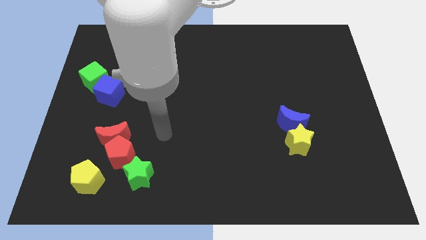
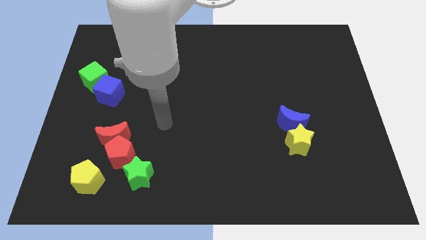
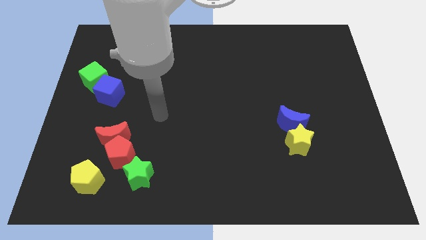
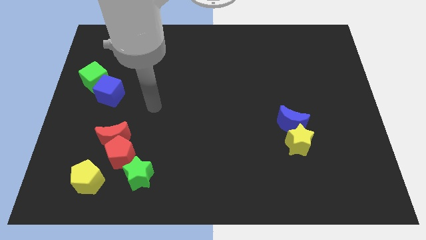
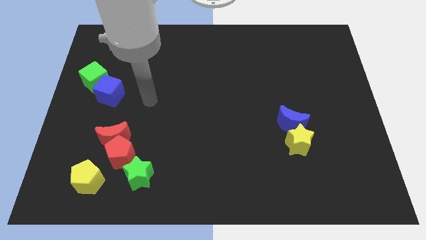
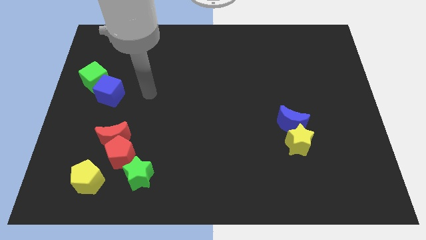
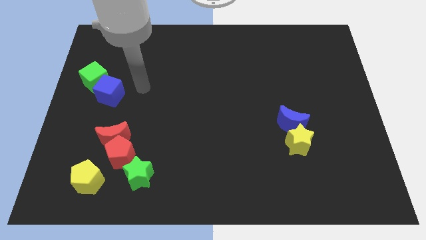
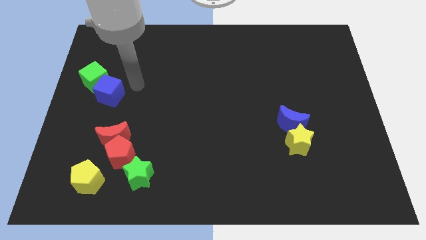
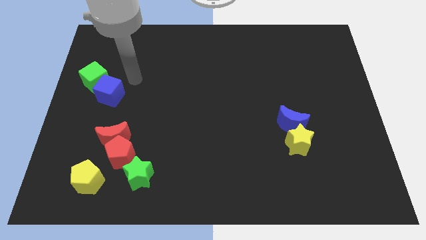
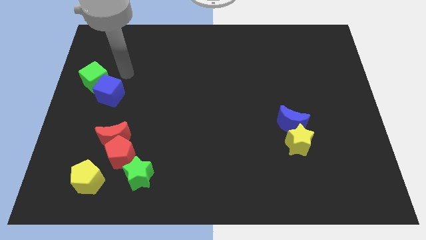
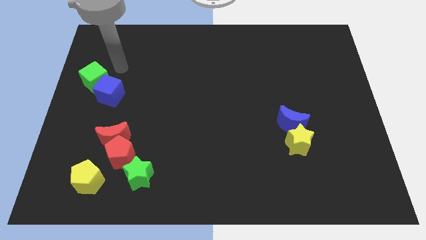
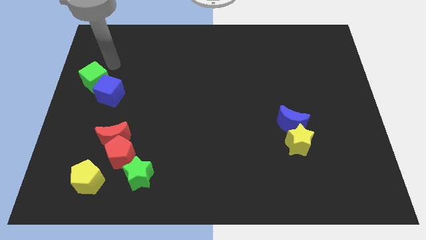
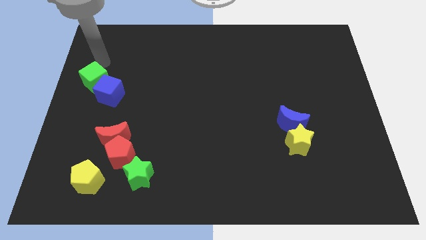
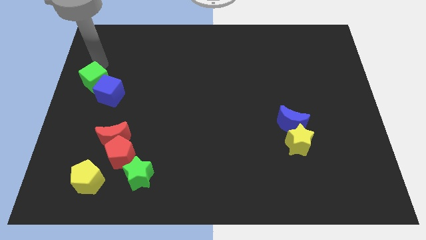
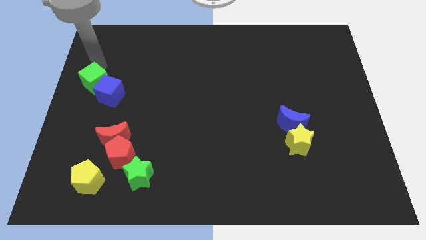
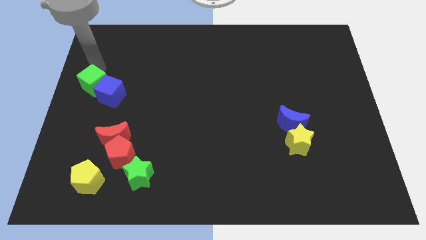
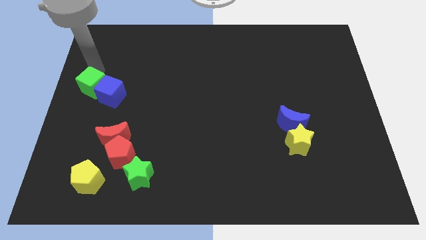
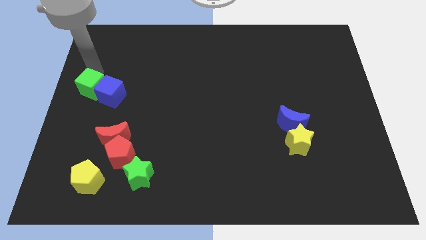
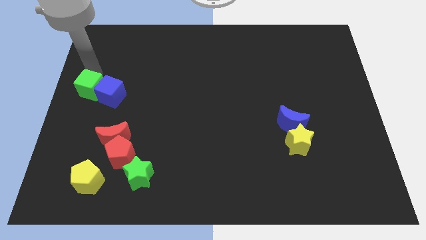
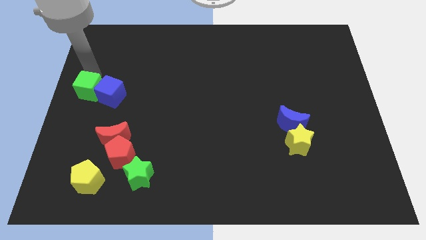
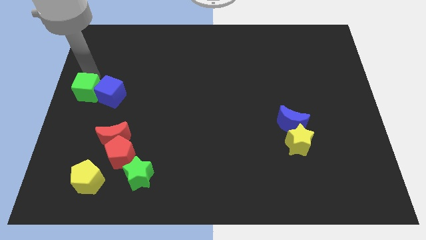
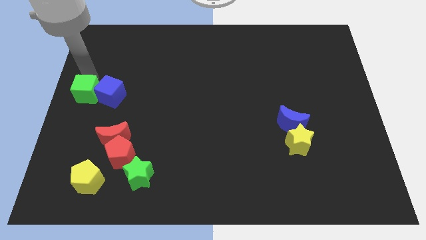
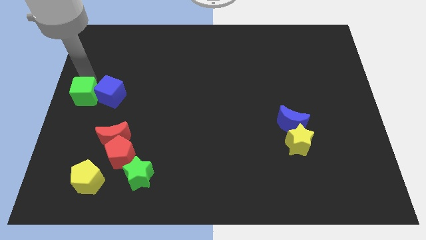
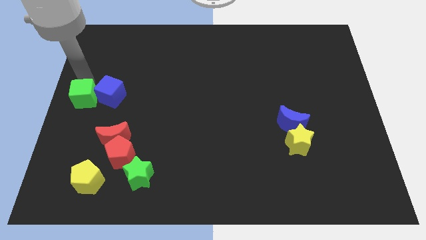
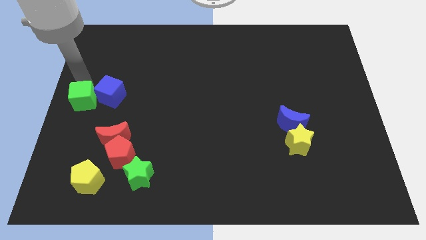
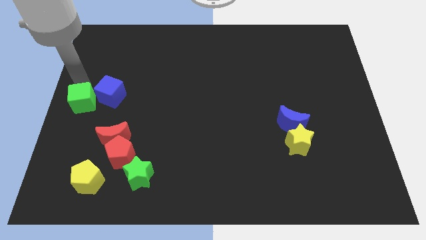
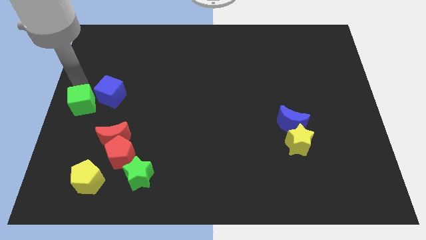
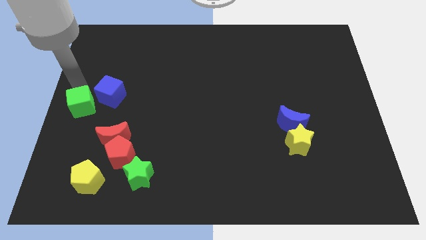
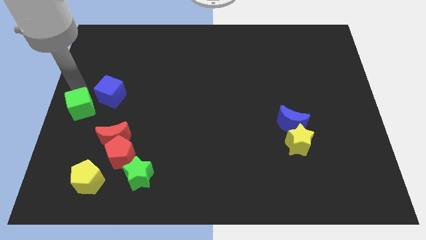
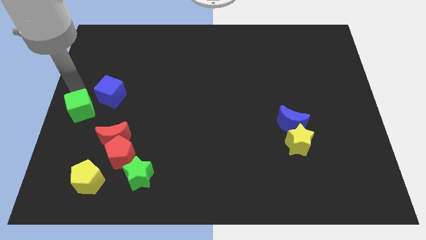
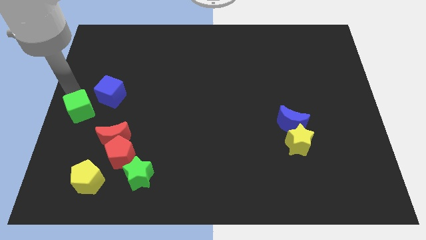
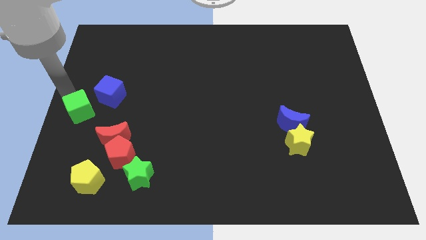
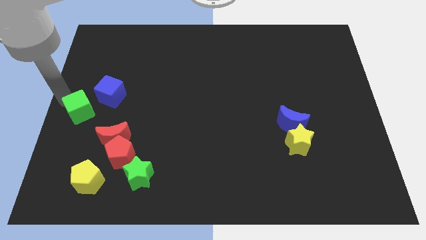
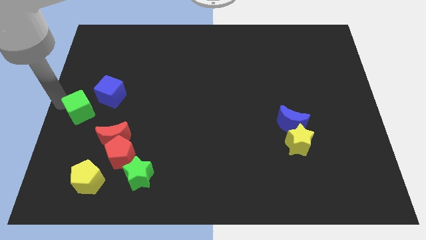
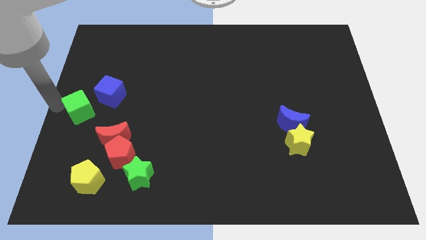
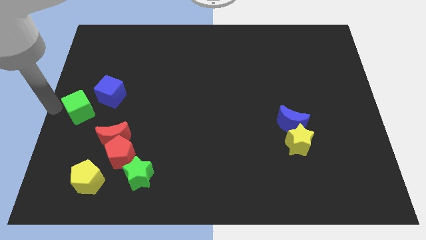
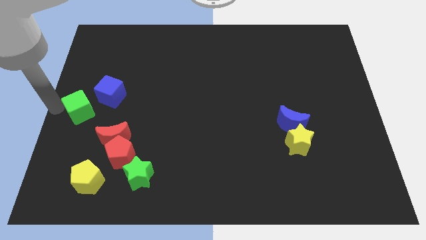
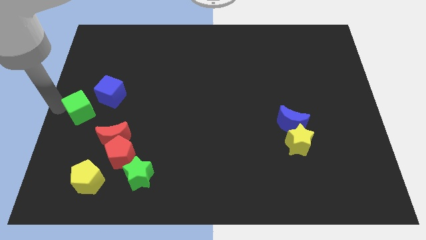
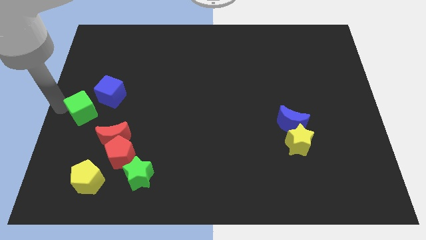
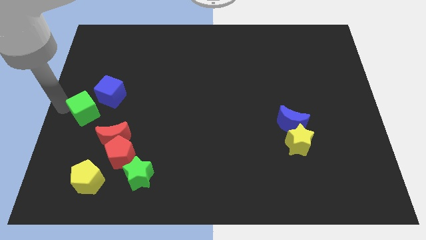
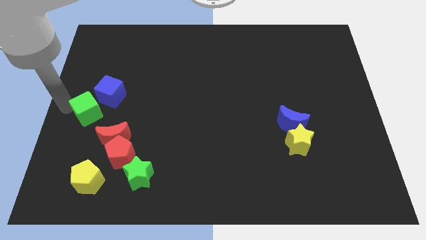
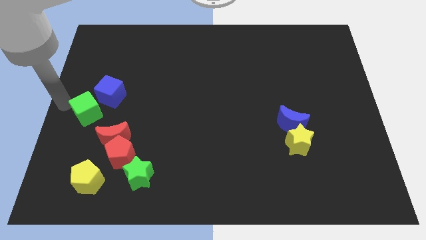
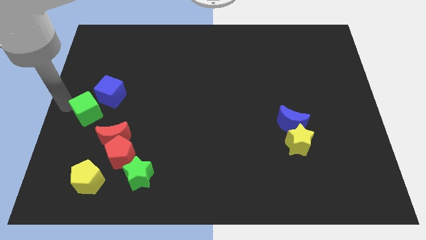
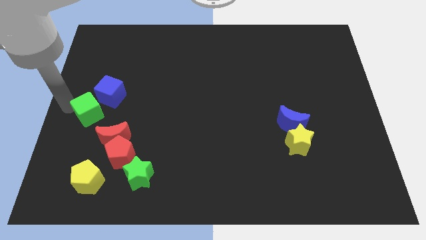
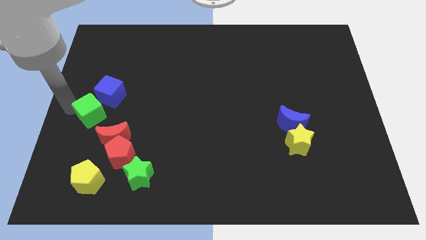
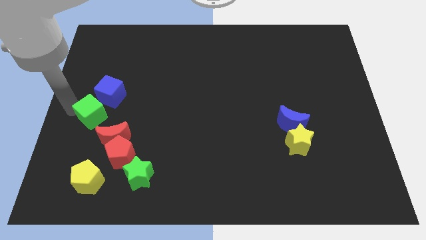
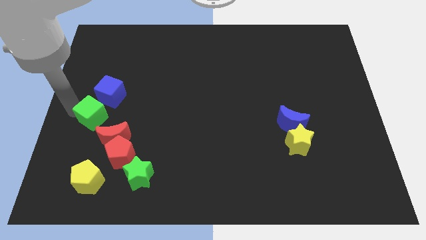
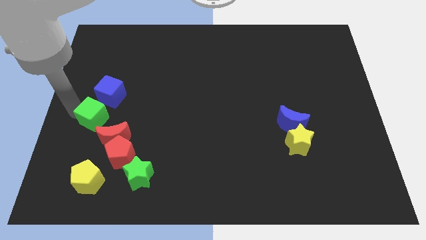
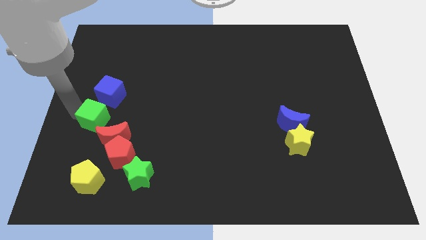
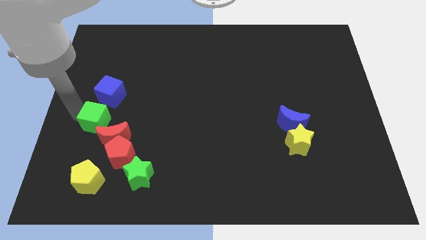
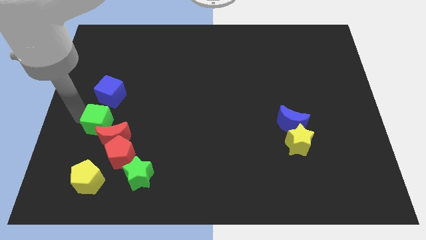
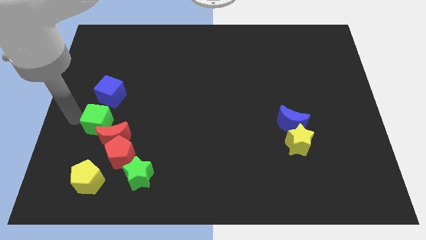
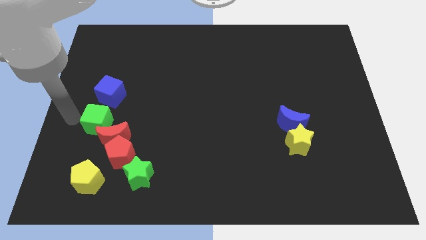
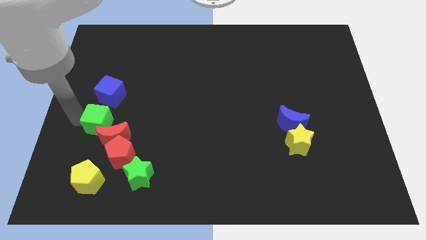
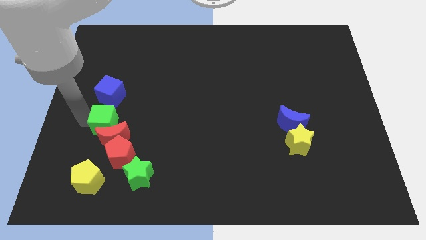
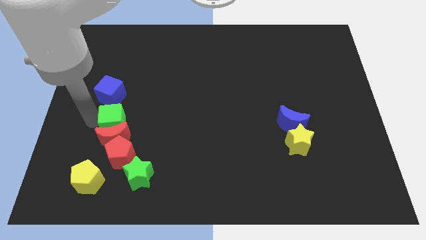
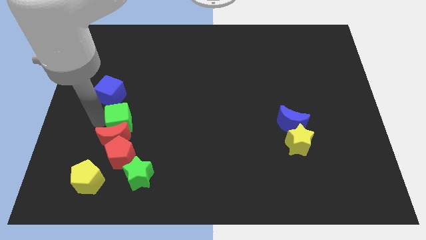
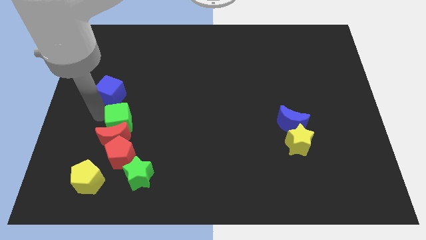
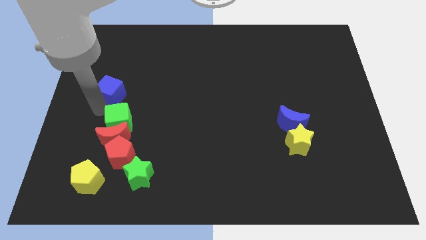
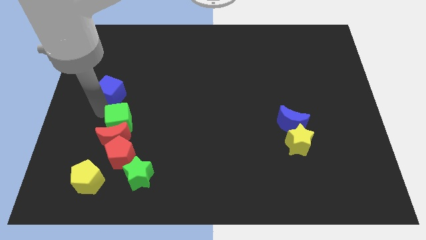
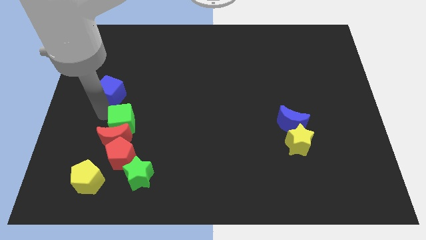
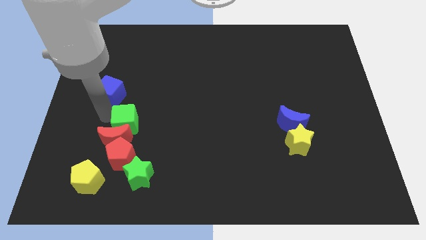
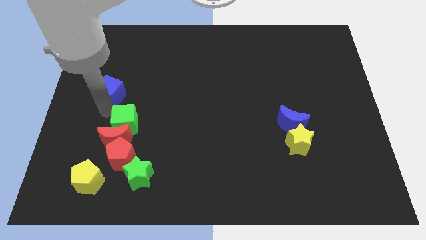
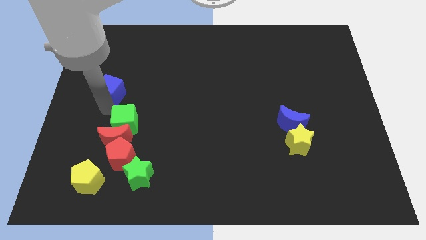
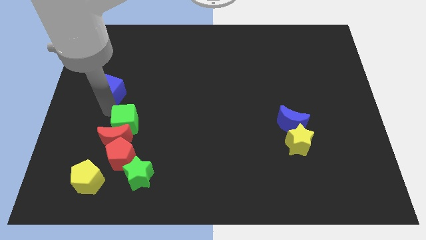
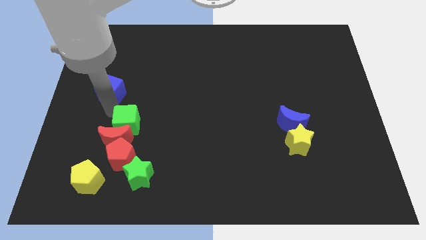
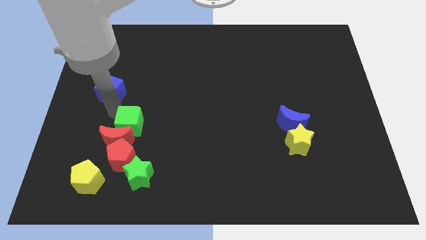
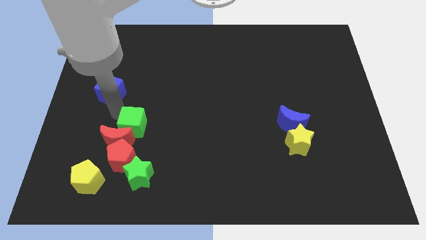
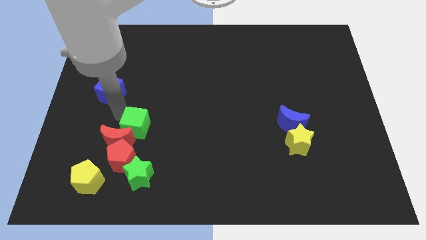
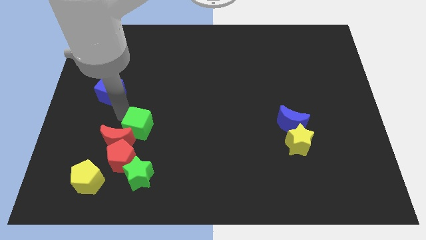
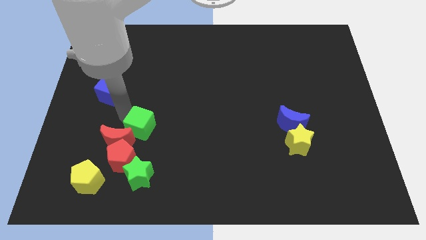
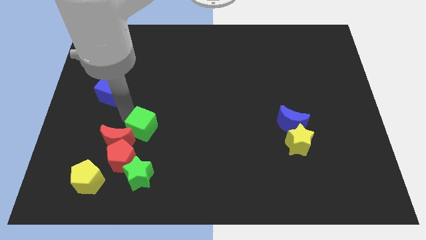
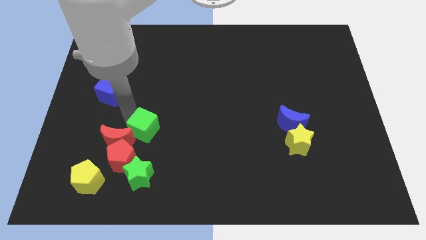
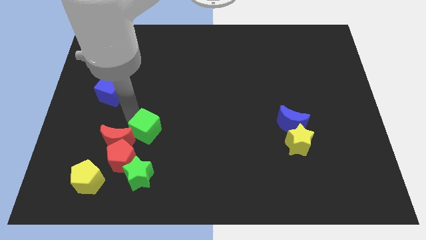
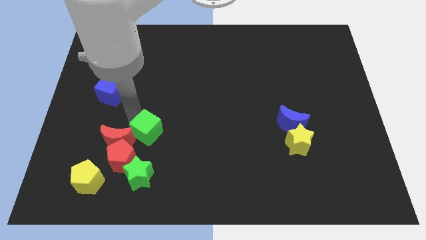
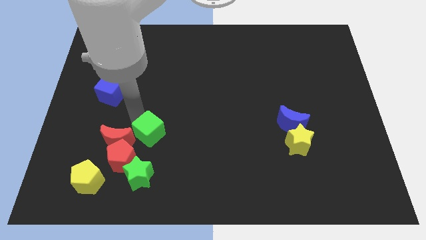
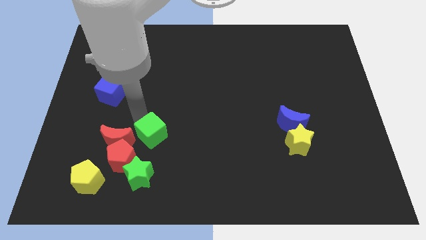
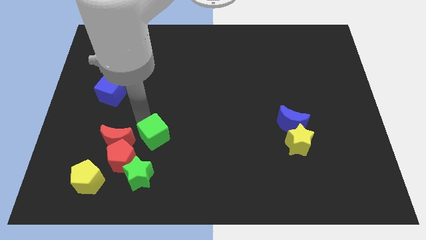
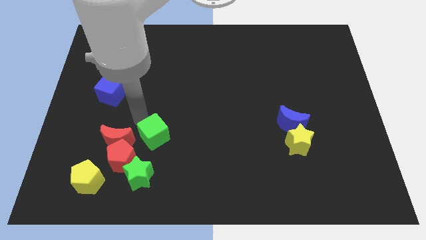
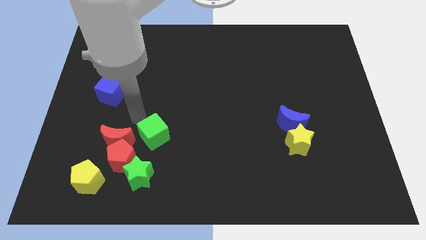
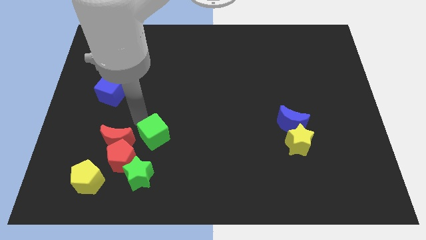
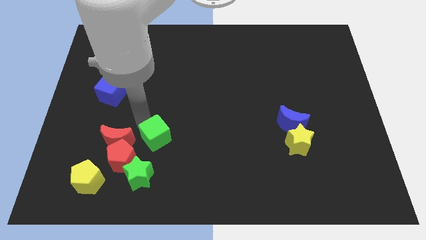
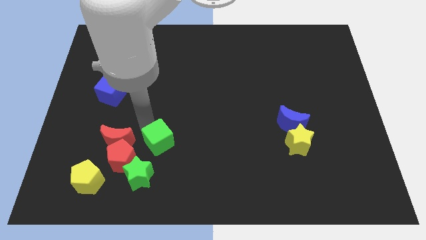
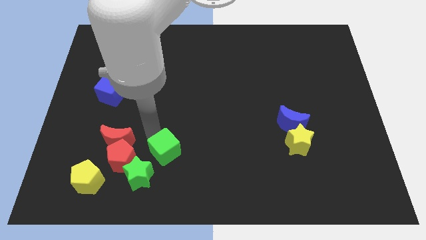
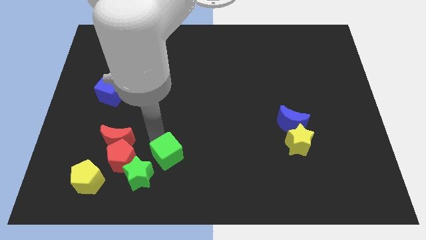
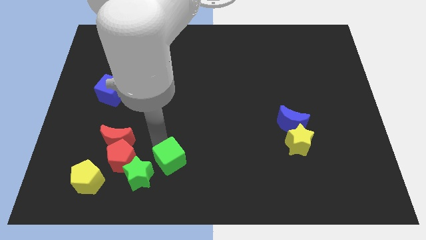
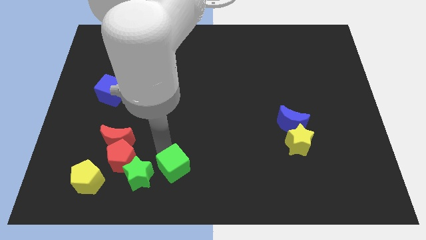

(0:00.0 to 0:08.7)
move the green cube to the bottom
